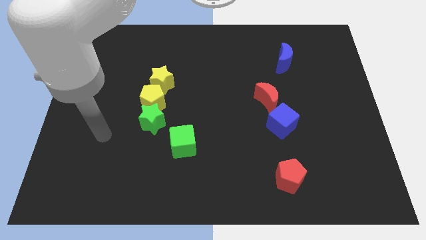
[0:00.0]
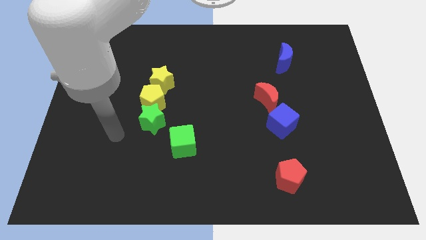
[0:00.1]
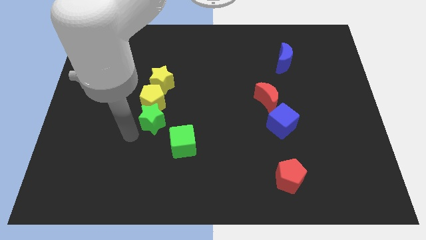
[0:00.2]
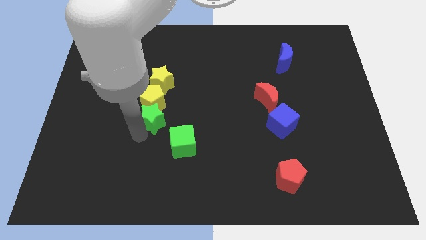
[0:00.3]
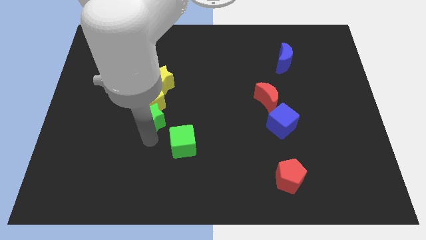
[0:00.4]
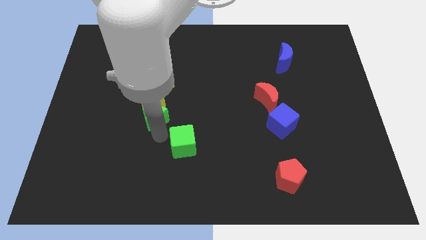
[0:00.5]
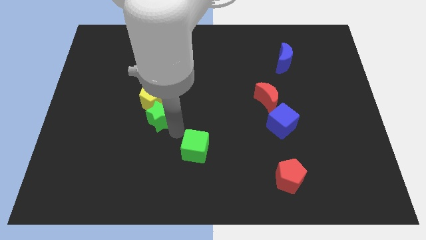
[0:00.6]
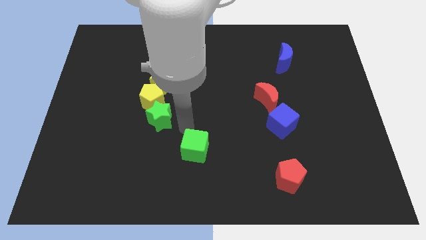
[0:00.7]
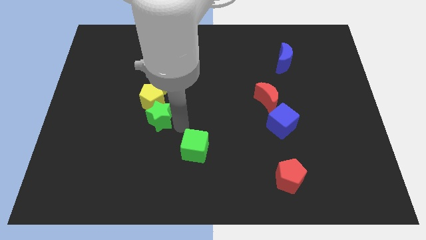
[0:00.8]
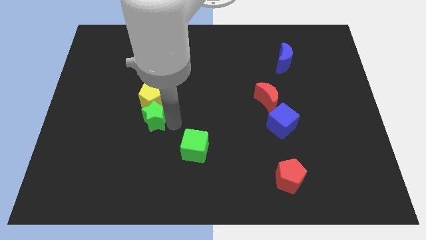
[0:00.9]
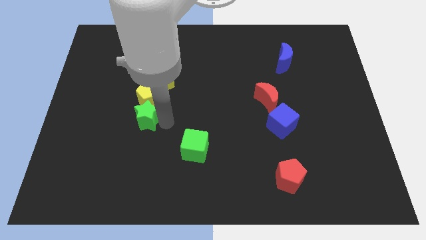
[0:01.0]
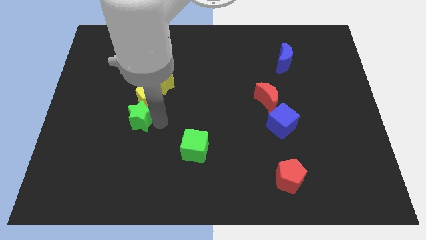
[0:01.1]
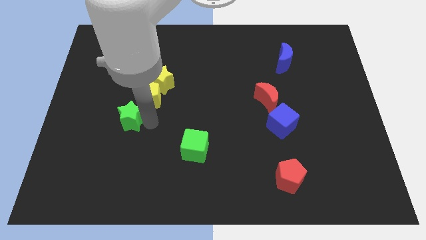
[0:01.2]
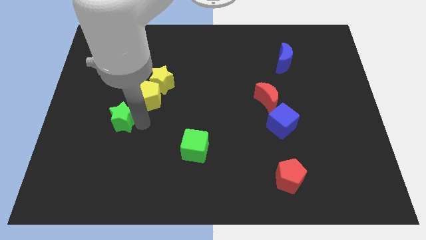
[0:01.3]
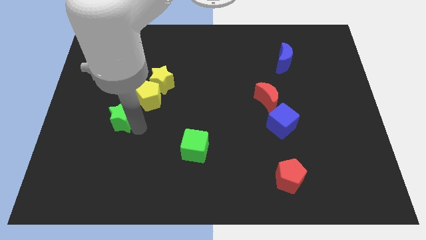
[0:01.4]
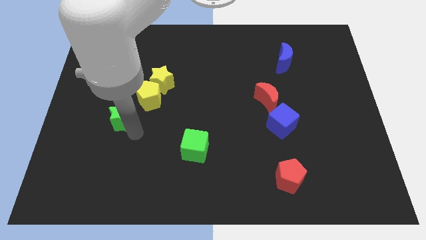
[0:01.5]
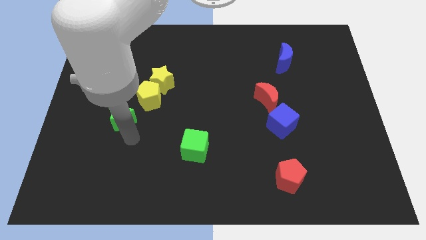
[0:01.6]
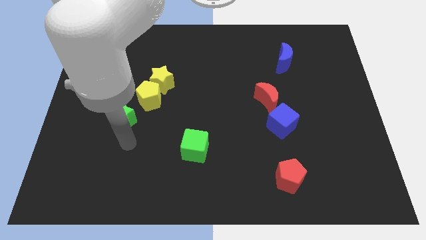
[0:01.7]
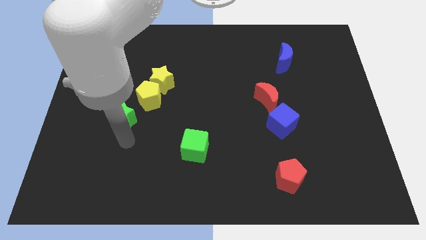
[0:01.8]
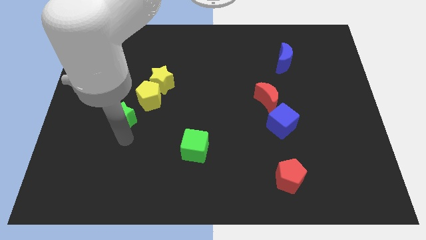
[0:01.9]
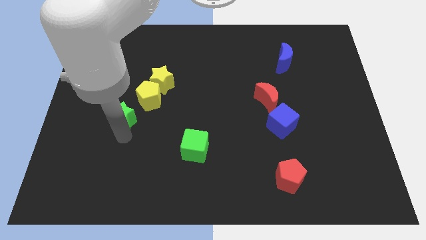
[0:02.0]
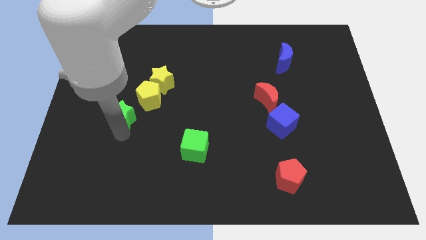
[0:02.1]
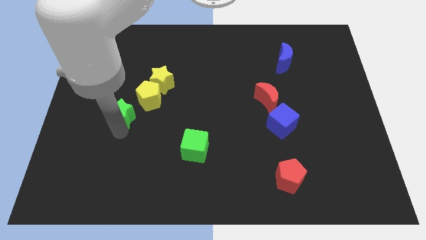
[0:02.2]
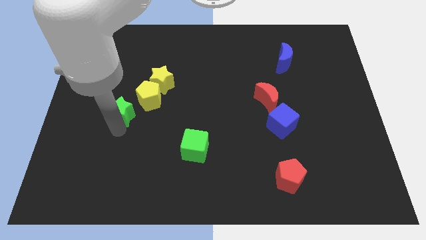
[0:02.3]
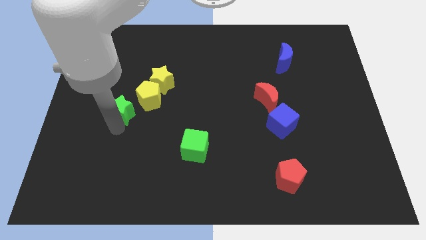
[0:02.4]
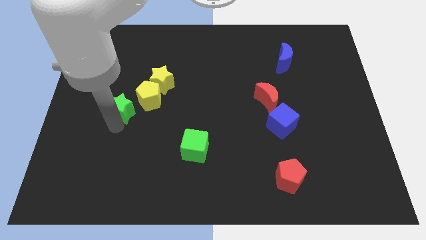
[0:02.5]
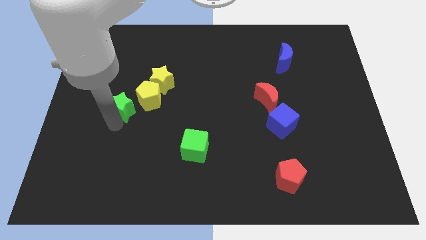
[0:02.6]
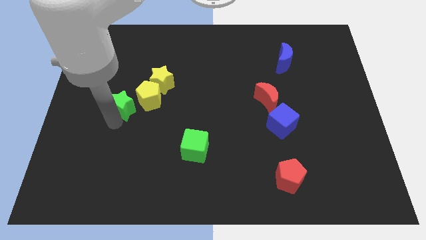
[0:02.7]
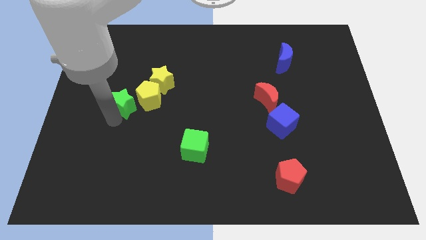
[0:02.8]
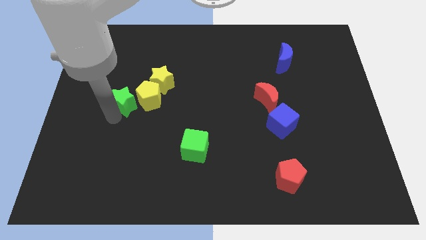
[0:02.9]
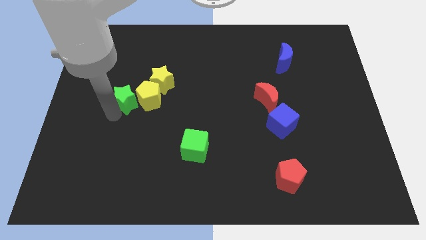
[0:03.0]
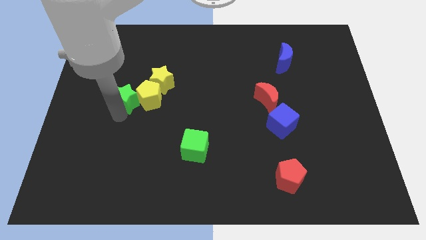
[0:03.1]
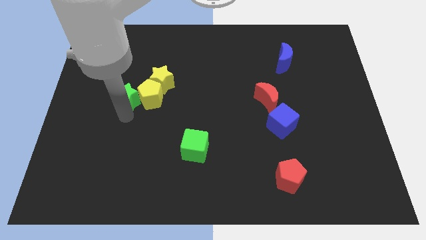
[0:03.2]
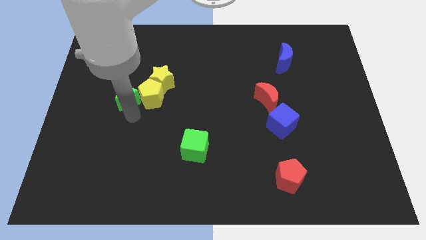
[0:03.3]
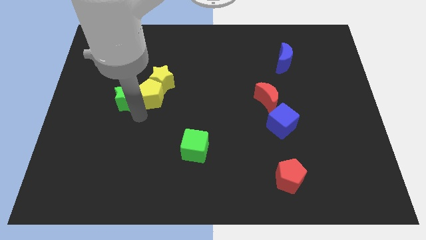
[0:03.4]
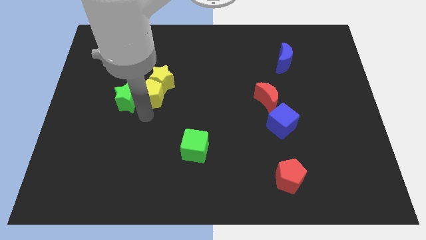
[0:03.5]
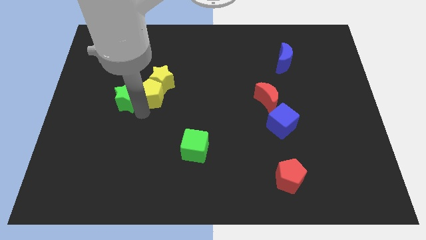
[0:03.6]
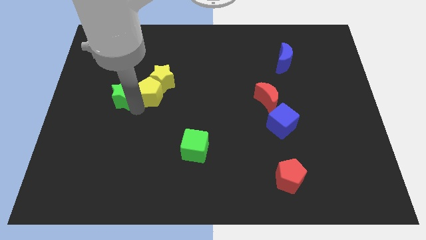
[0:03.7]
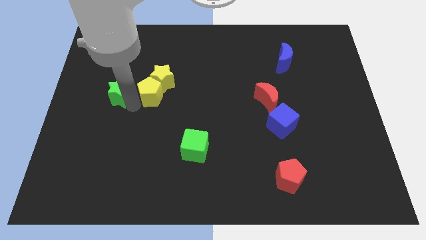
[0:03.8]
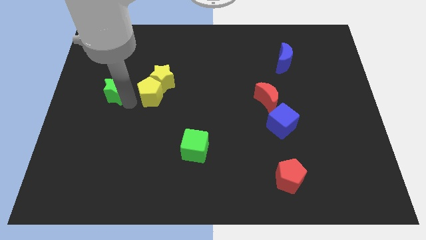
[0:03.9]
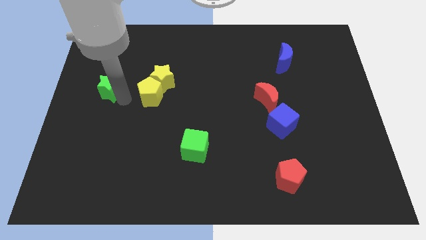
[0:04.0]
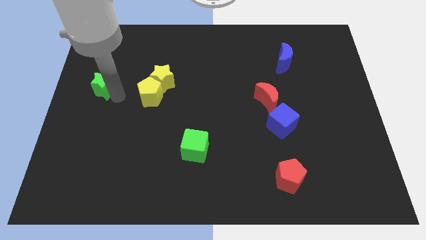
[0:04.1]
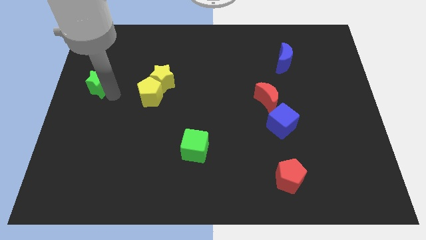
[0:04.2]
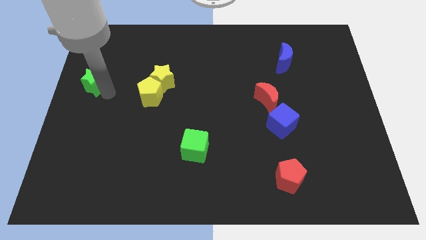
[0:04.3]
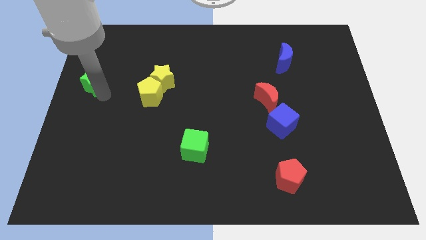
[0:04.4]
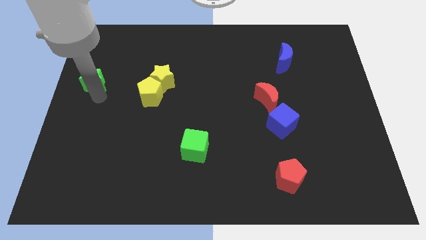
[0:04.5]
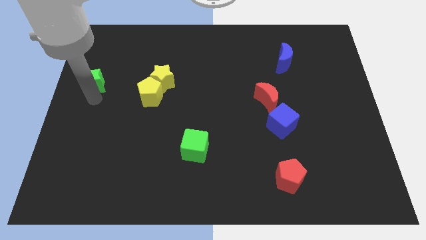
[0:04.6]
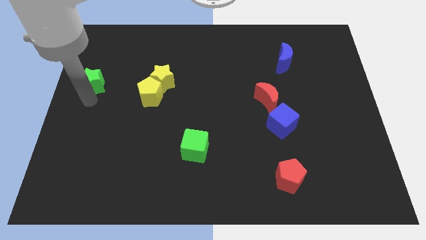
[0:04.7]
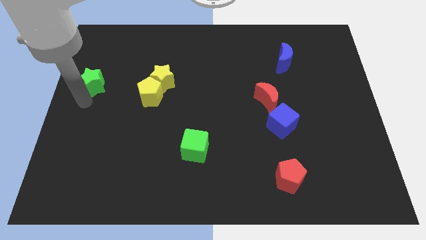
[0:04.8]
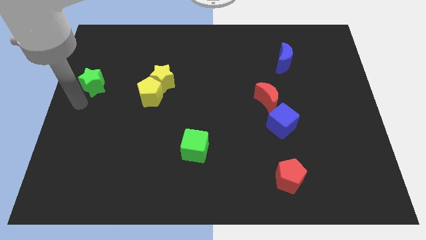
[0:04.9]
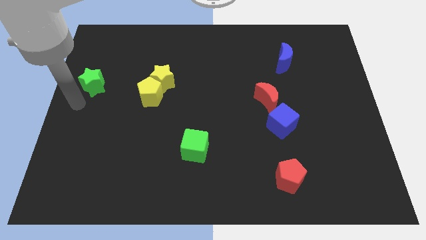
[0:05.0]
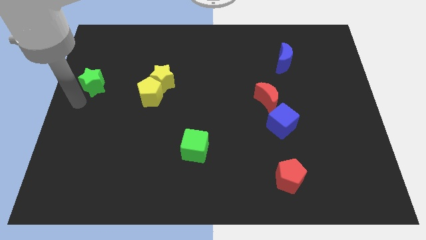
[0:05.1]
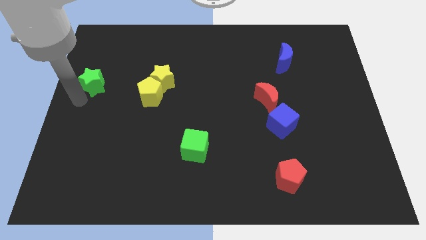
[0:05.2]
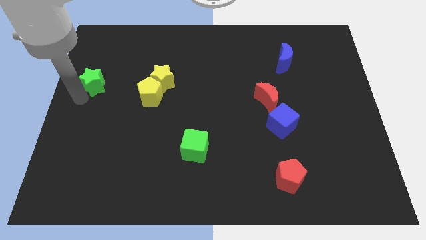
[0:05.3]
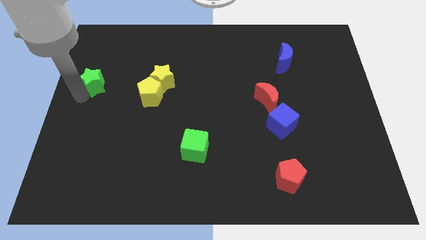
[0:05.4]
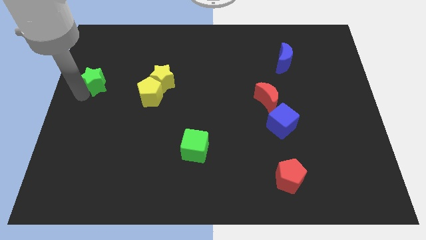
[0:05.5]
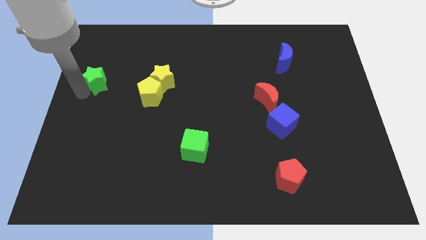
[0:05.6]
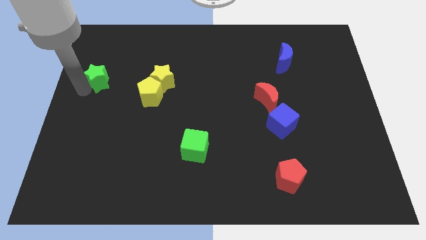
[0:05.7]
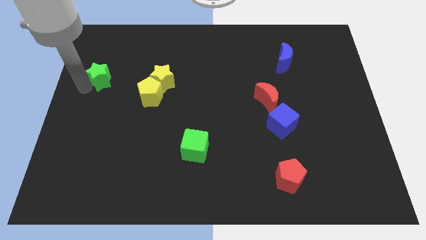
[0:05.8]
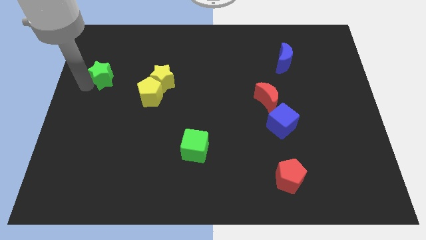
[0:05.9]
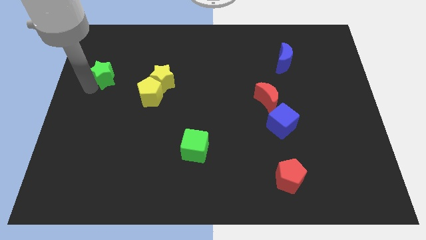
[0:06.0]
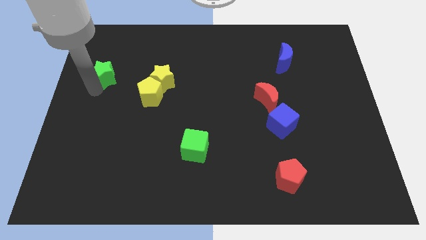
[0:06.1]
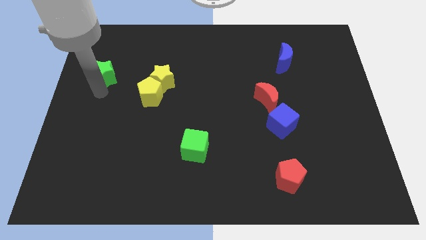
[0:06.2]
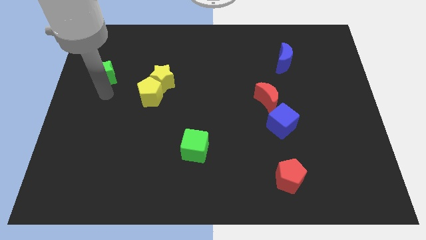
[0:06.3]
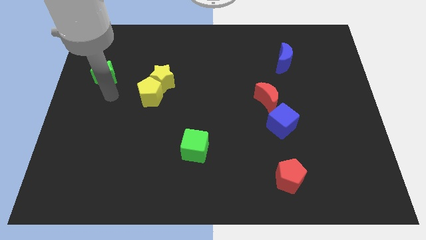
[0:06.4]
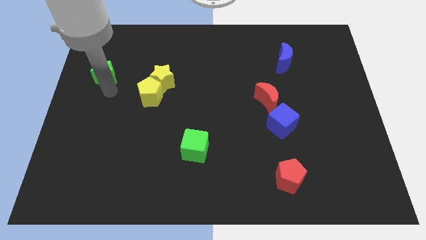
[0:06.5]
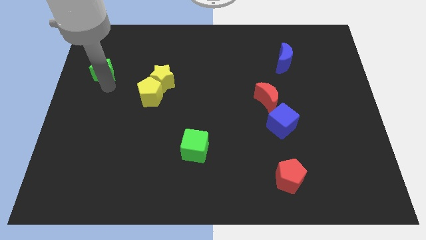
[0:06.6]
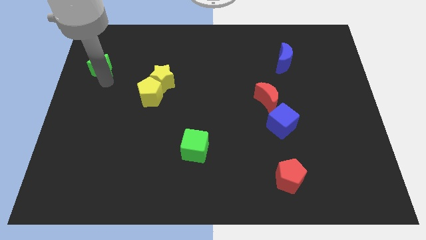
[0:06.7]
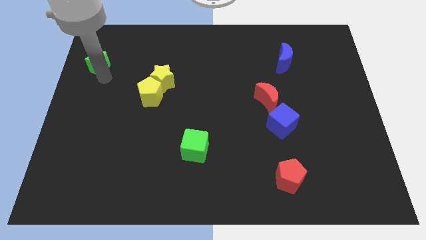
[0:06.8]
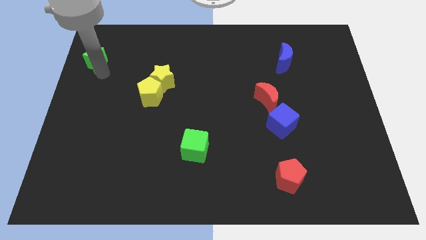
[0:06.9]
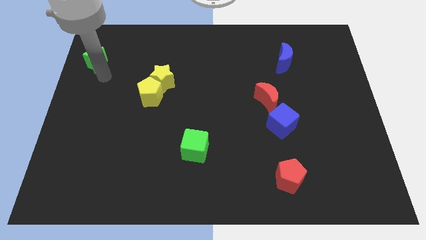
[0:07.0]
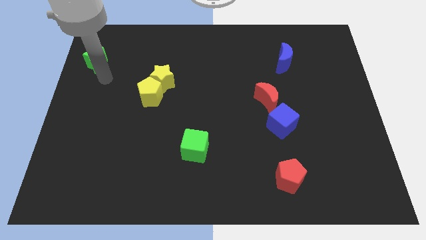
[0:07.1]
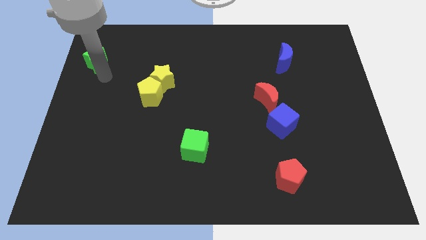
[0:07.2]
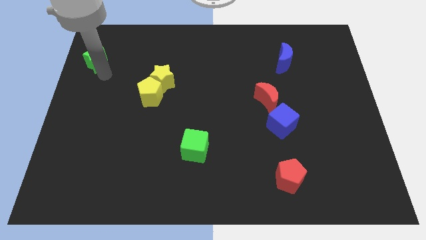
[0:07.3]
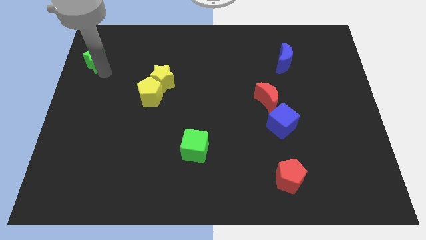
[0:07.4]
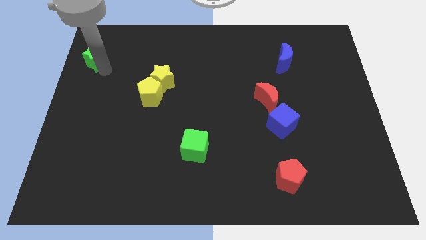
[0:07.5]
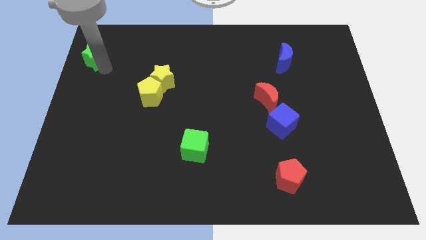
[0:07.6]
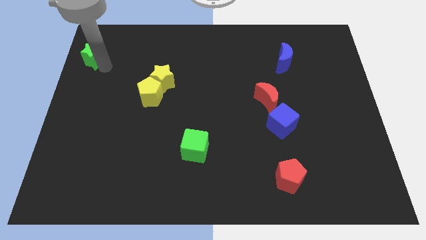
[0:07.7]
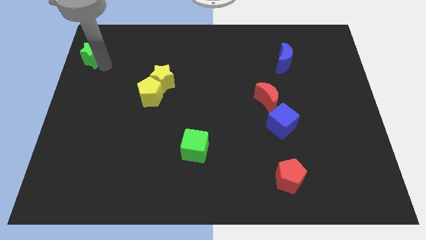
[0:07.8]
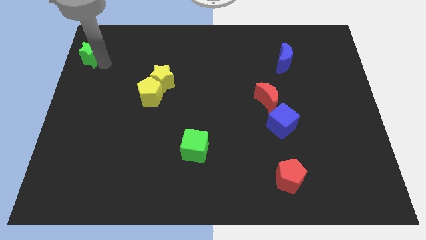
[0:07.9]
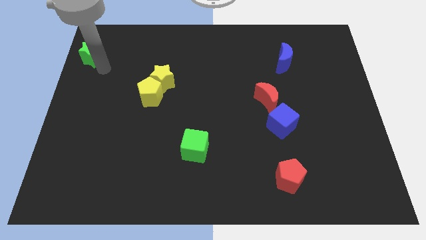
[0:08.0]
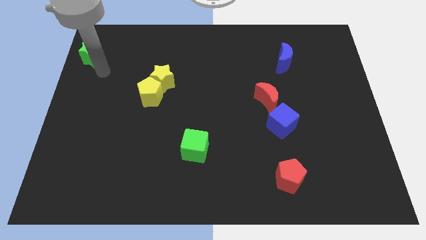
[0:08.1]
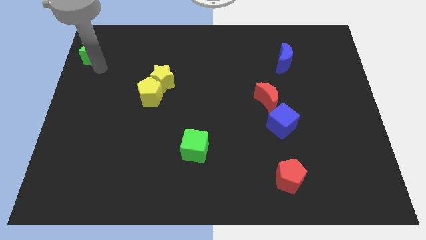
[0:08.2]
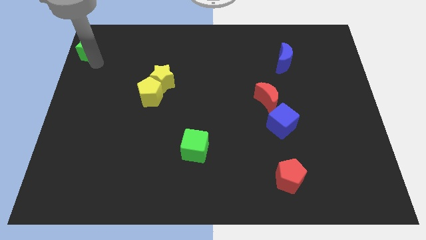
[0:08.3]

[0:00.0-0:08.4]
push the green star to the top left of the board
